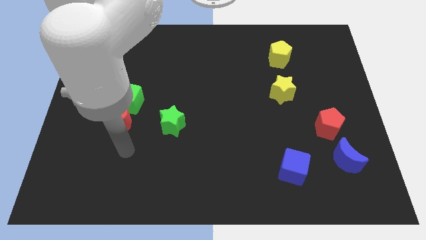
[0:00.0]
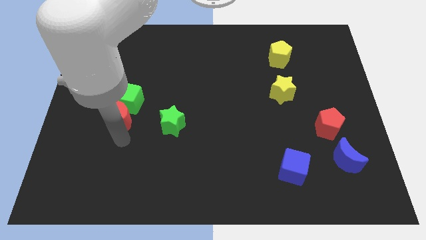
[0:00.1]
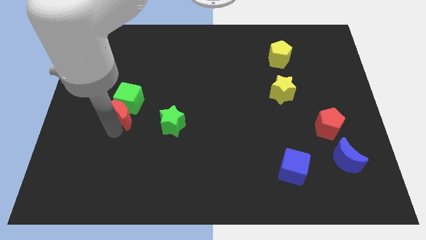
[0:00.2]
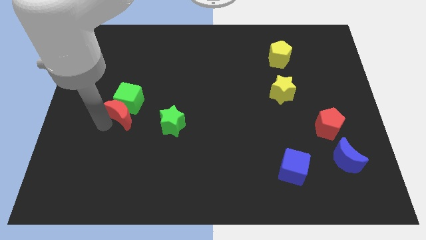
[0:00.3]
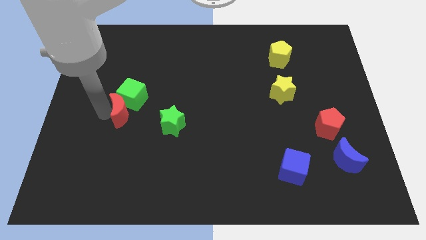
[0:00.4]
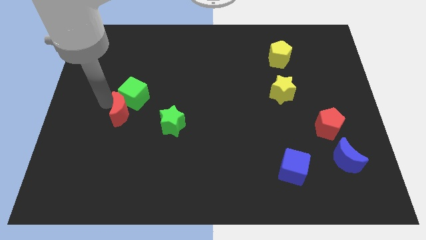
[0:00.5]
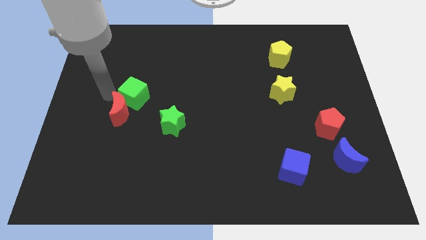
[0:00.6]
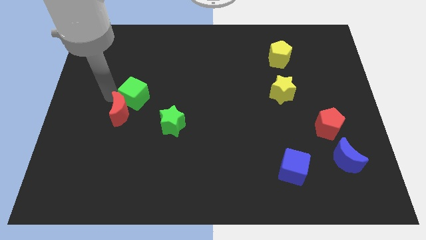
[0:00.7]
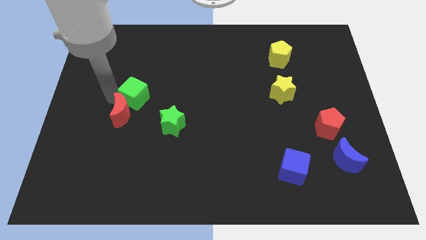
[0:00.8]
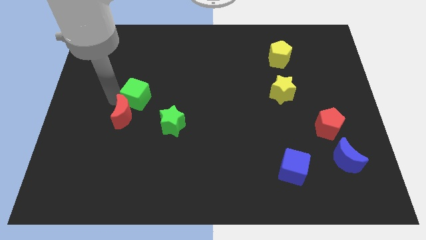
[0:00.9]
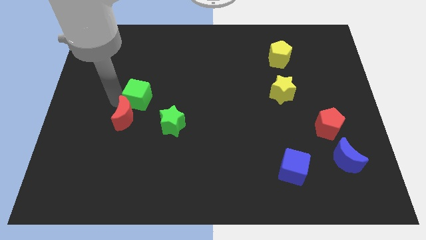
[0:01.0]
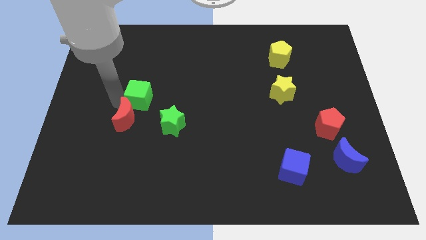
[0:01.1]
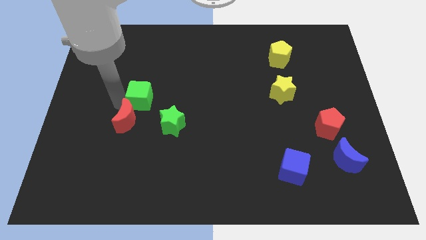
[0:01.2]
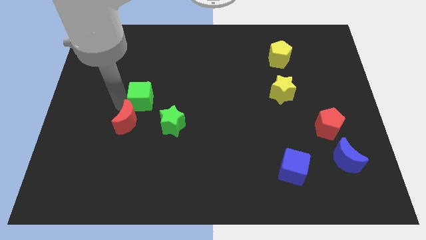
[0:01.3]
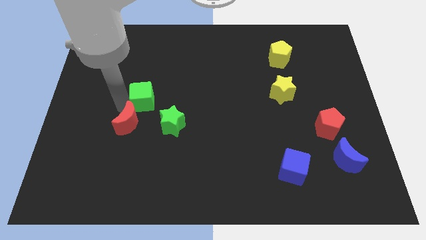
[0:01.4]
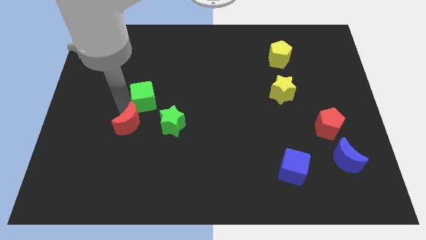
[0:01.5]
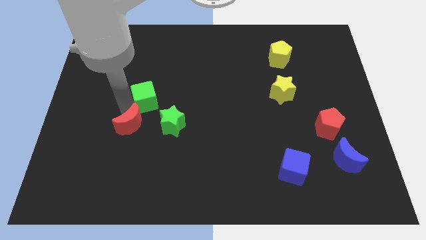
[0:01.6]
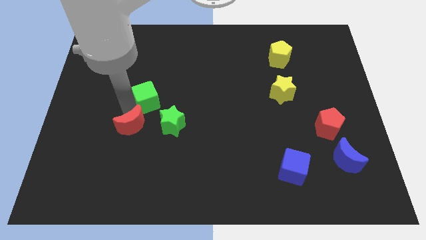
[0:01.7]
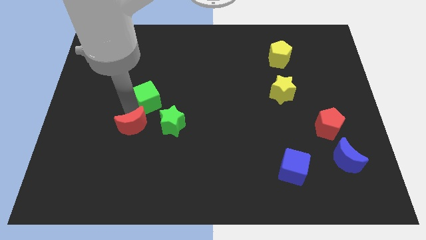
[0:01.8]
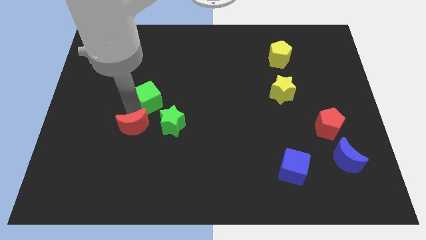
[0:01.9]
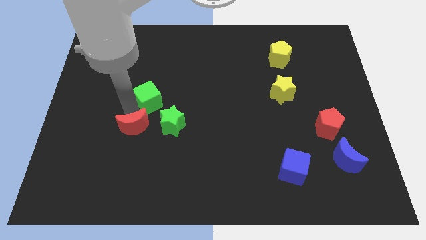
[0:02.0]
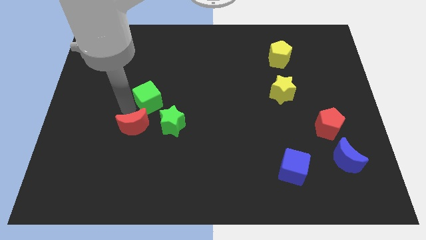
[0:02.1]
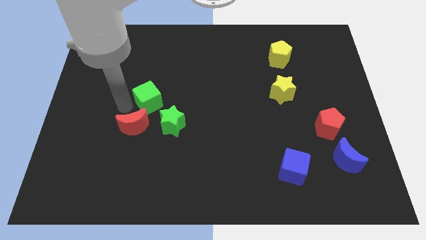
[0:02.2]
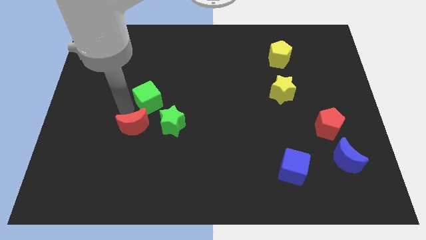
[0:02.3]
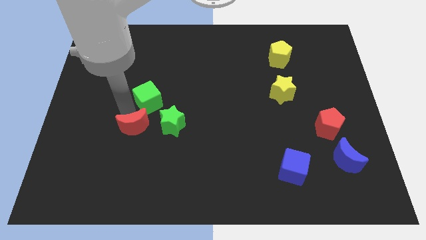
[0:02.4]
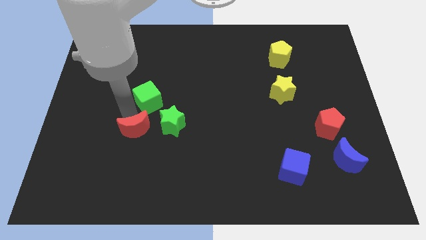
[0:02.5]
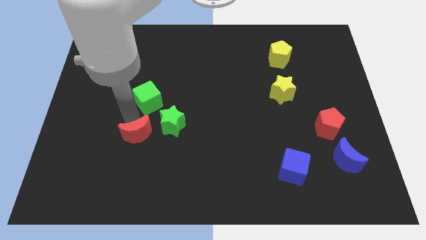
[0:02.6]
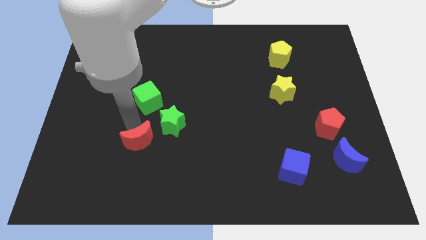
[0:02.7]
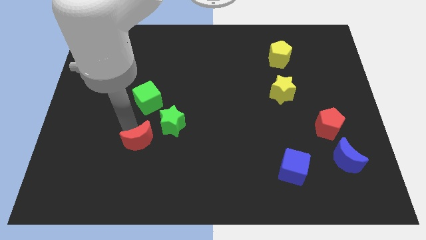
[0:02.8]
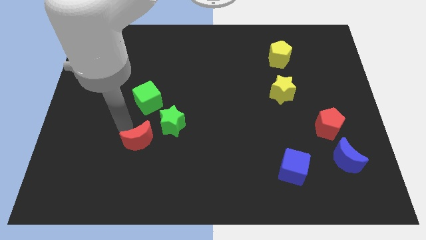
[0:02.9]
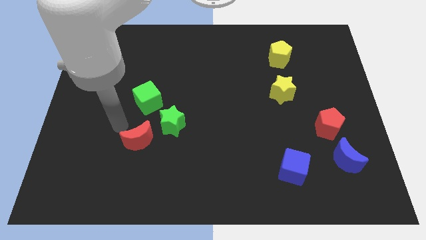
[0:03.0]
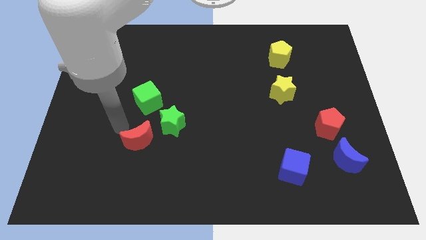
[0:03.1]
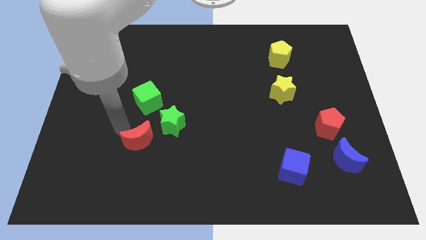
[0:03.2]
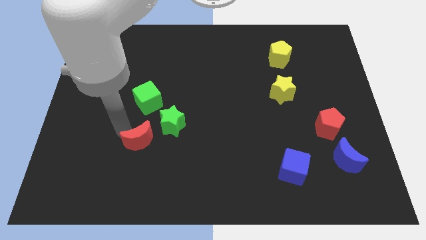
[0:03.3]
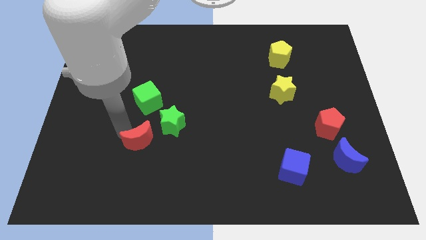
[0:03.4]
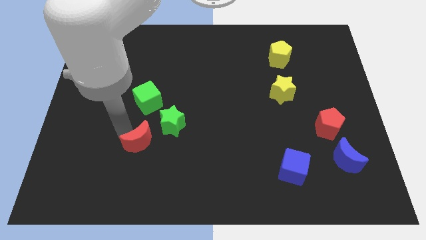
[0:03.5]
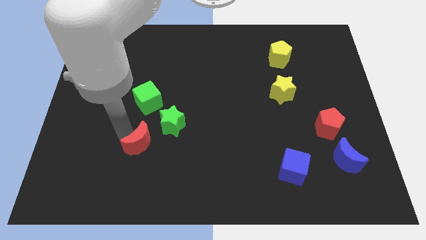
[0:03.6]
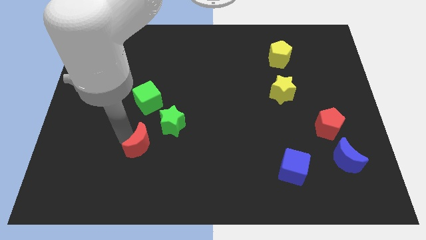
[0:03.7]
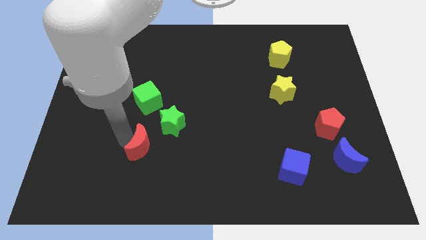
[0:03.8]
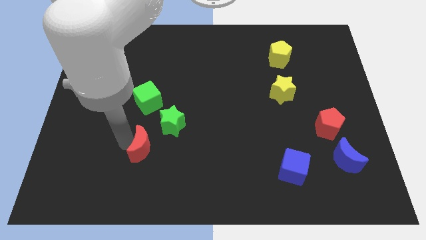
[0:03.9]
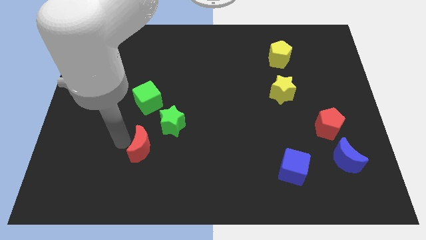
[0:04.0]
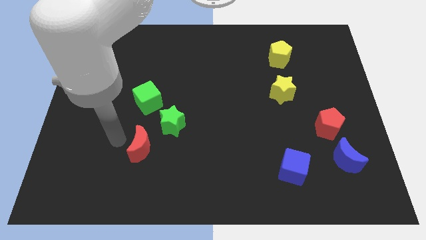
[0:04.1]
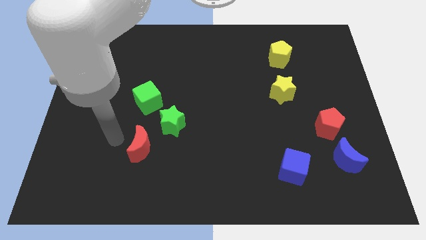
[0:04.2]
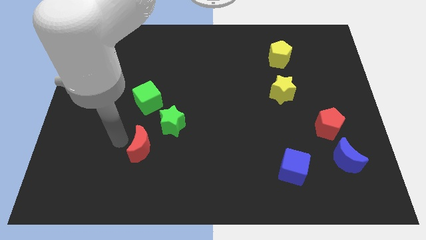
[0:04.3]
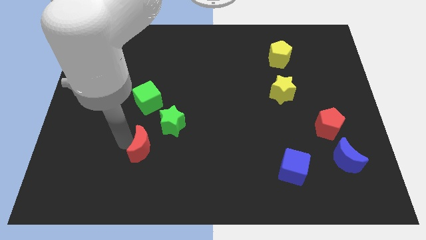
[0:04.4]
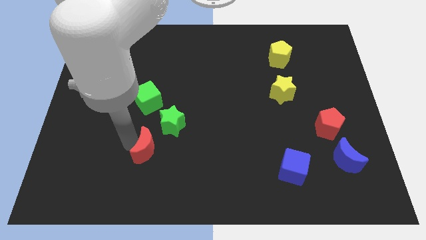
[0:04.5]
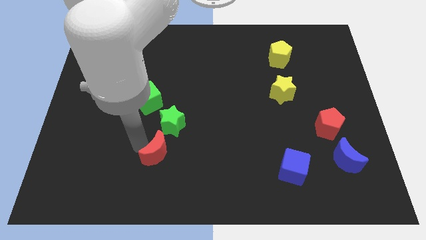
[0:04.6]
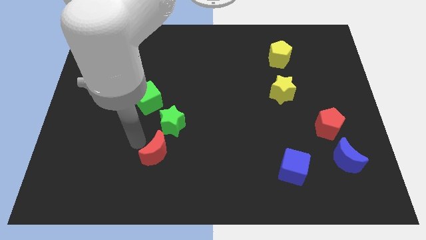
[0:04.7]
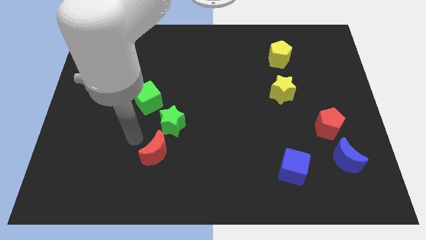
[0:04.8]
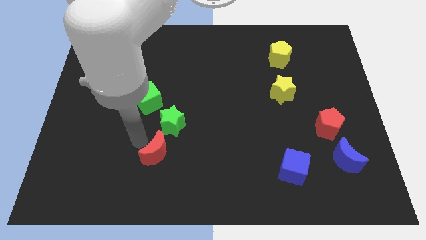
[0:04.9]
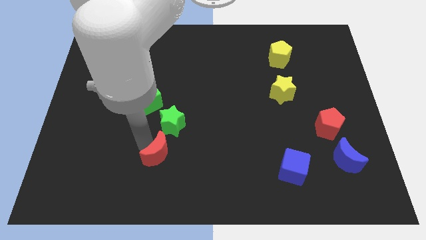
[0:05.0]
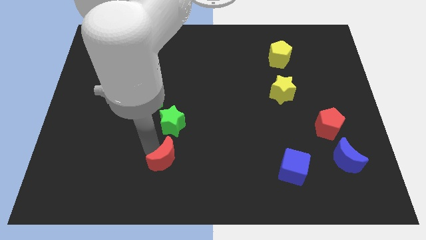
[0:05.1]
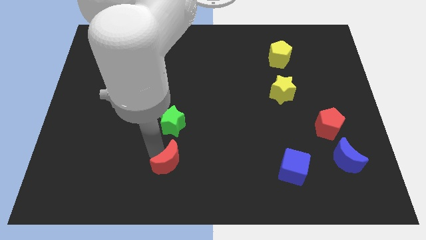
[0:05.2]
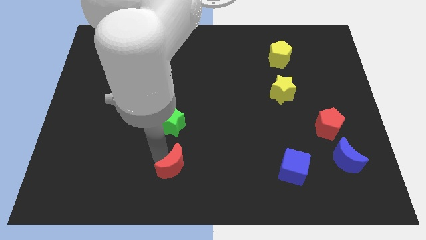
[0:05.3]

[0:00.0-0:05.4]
move the red moon to the bottom side

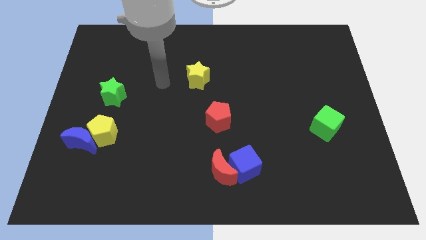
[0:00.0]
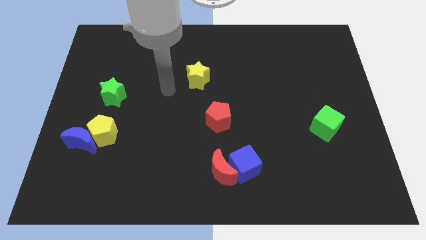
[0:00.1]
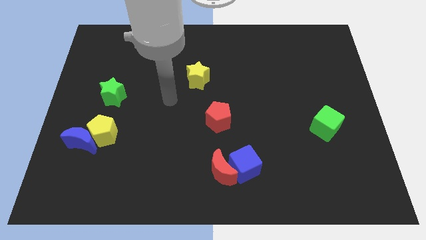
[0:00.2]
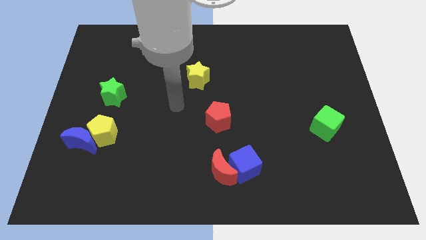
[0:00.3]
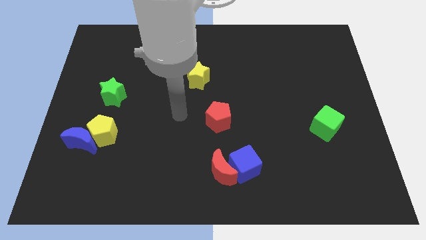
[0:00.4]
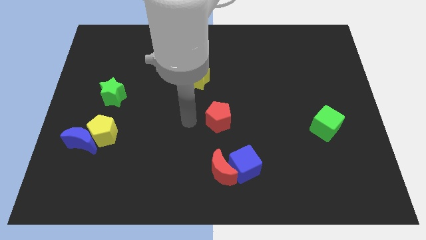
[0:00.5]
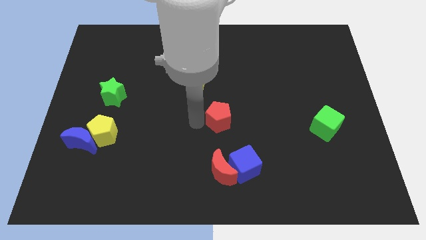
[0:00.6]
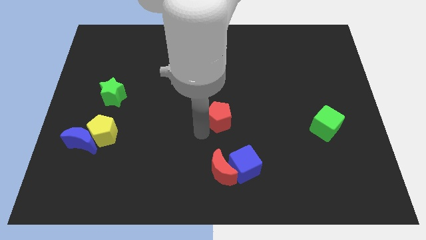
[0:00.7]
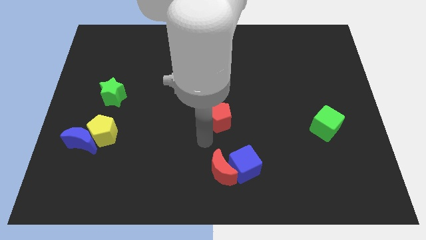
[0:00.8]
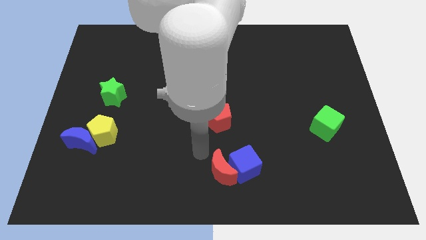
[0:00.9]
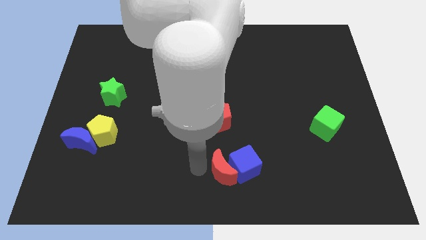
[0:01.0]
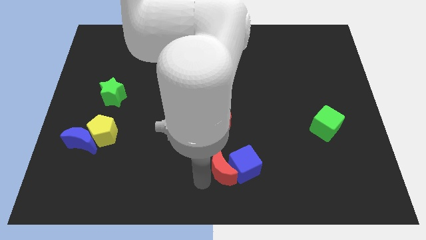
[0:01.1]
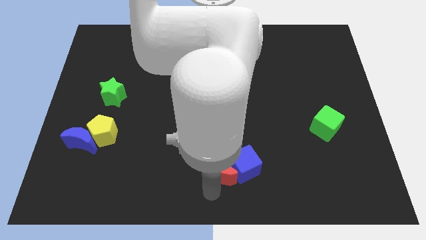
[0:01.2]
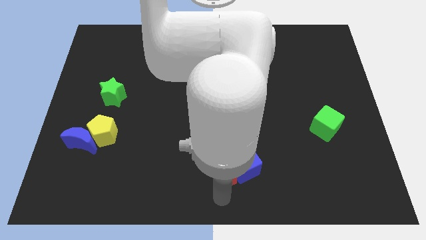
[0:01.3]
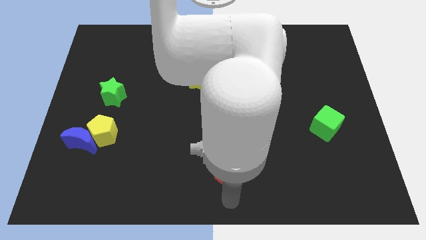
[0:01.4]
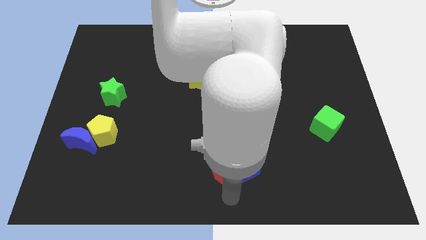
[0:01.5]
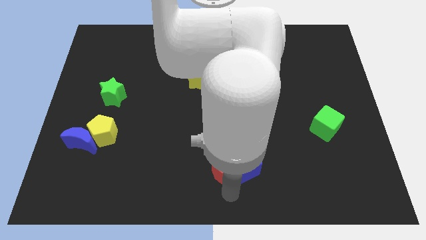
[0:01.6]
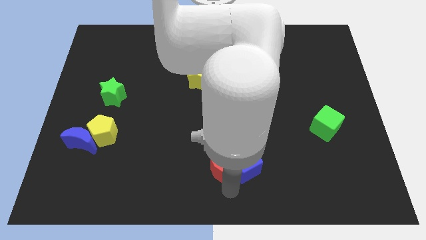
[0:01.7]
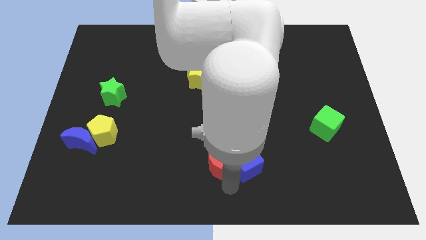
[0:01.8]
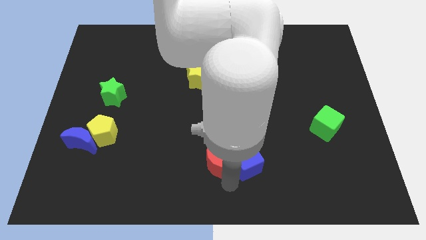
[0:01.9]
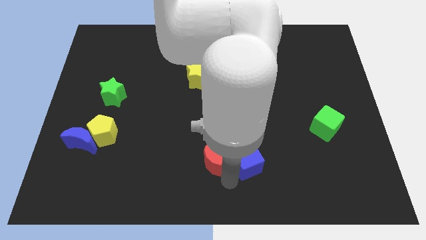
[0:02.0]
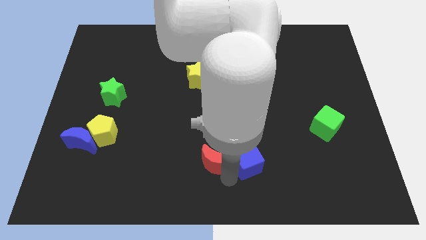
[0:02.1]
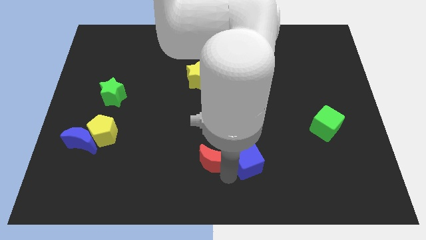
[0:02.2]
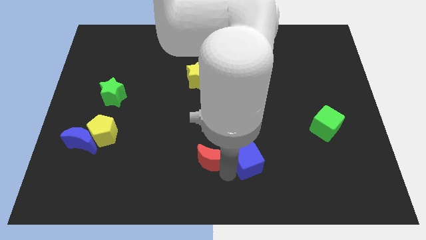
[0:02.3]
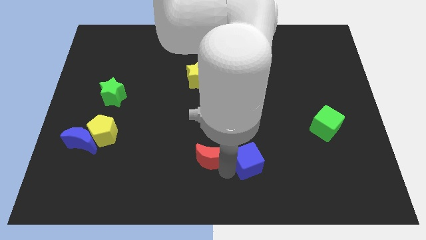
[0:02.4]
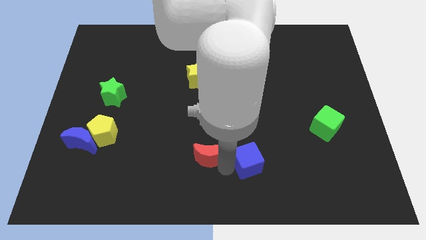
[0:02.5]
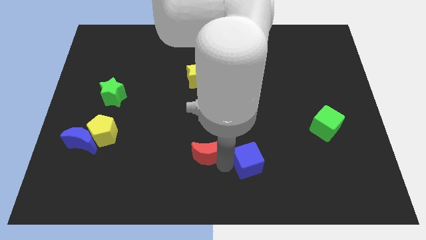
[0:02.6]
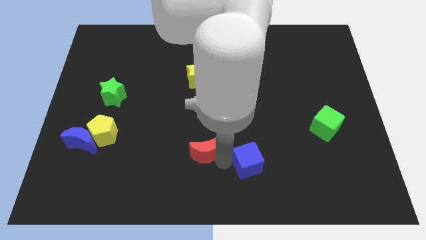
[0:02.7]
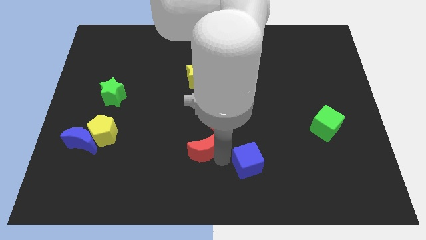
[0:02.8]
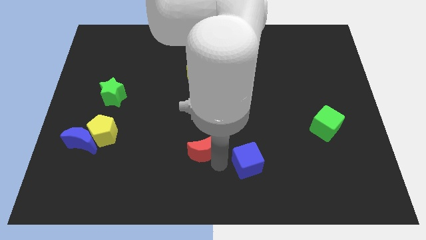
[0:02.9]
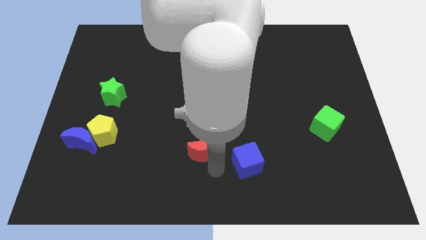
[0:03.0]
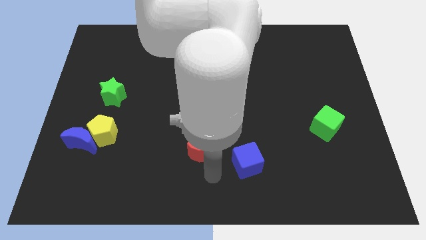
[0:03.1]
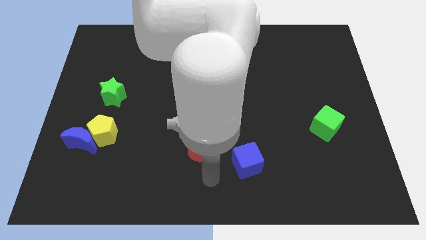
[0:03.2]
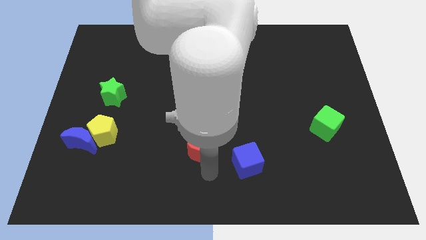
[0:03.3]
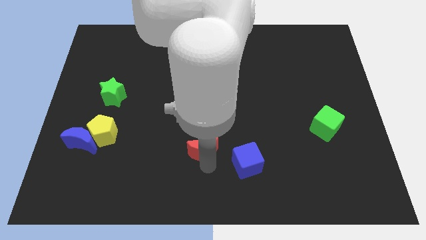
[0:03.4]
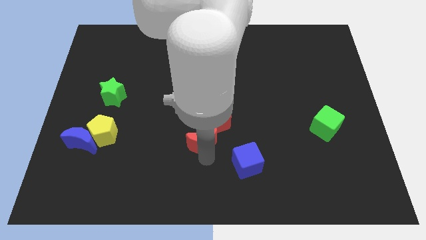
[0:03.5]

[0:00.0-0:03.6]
slide the red moon to the middle of the board
